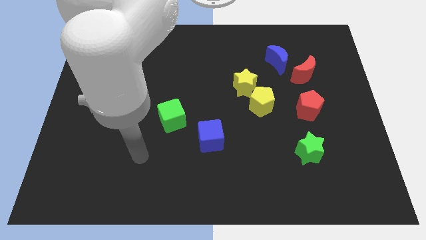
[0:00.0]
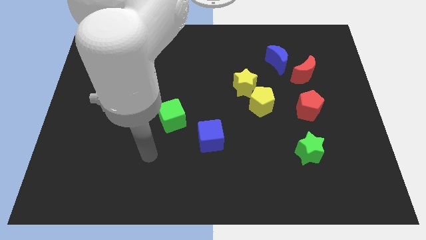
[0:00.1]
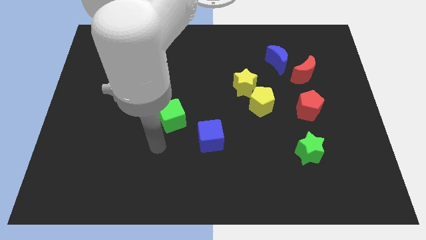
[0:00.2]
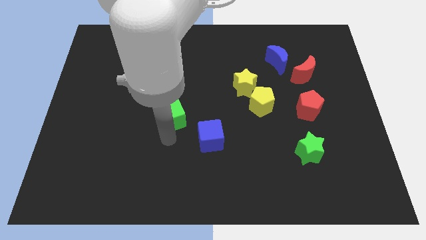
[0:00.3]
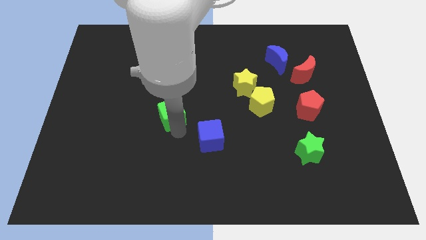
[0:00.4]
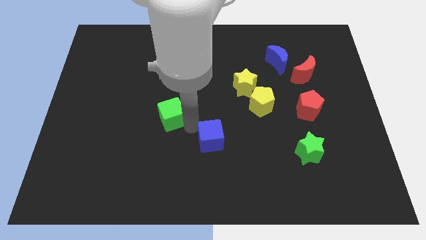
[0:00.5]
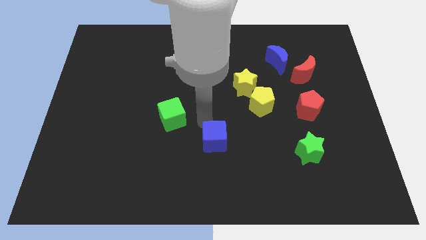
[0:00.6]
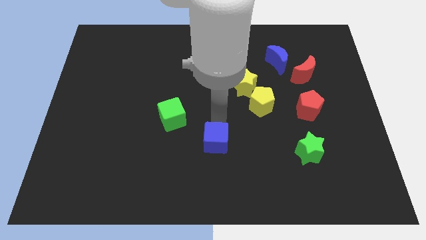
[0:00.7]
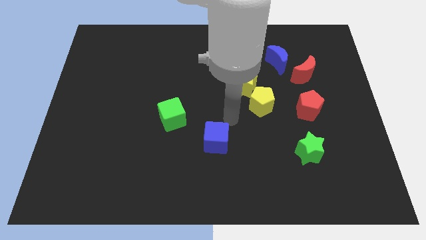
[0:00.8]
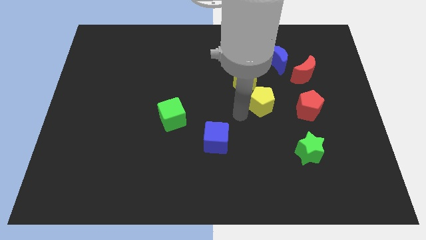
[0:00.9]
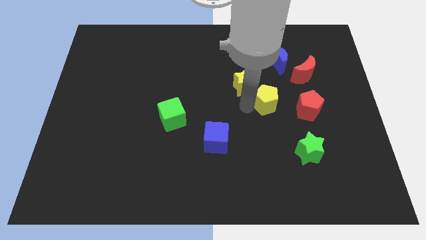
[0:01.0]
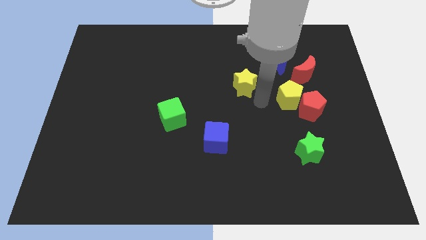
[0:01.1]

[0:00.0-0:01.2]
pull the yellow star apart from the yellow pentagon

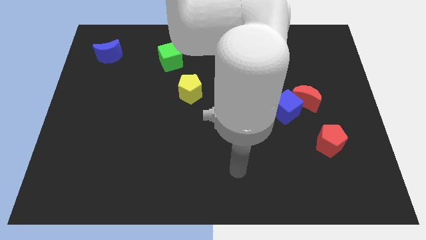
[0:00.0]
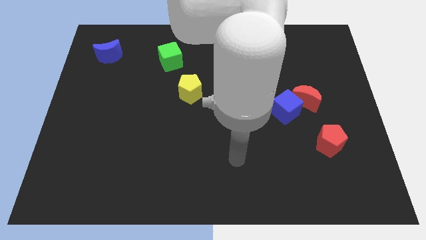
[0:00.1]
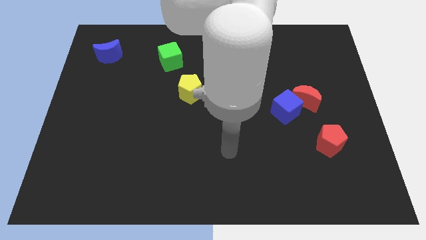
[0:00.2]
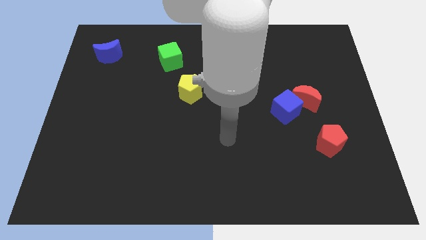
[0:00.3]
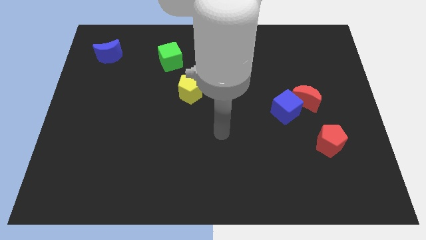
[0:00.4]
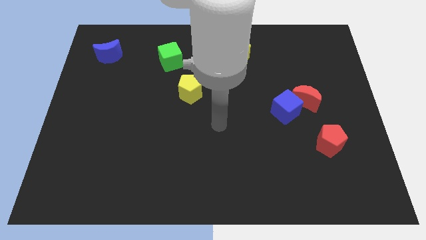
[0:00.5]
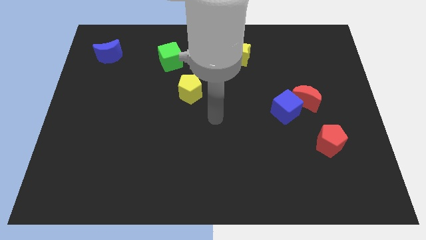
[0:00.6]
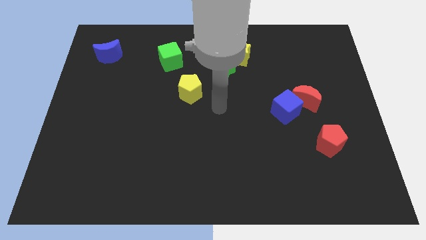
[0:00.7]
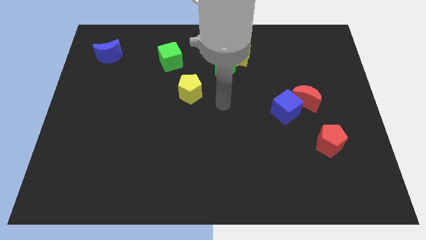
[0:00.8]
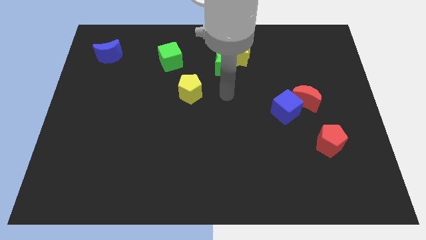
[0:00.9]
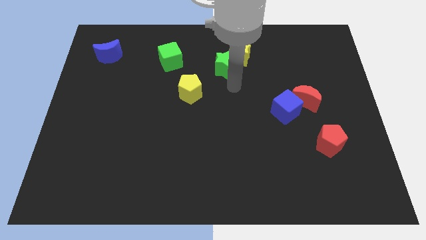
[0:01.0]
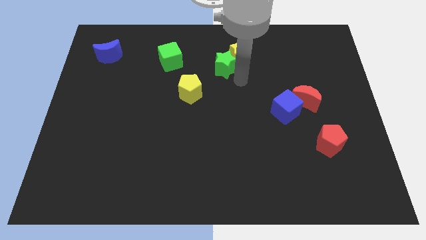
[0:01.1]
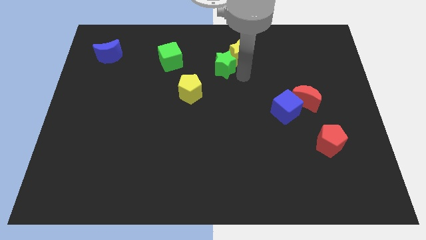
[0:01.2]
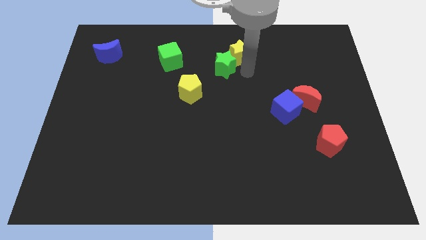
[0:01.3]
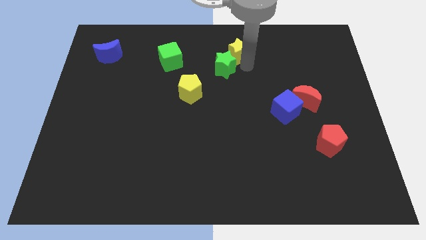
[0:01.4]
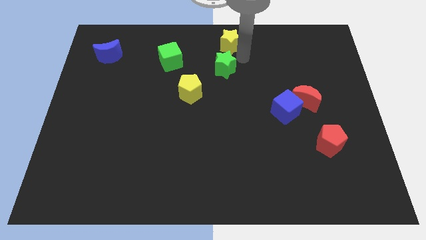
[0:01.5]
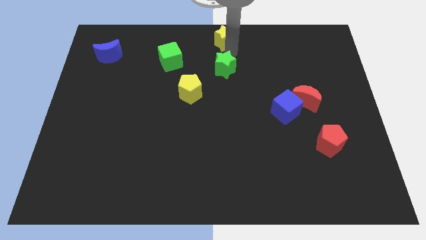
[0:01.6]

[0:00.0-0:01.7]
pull the green star apart from the yellow star

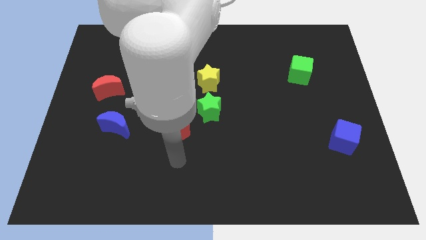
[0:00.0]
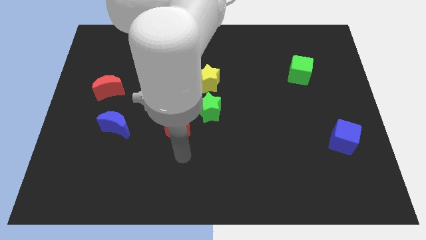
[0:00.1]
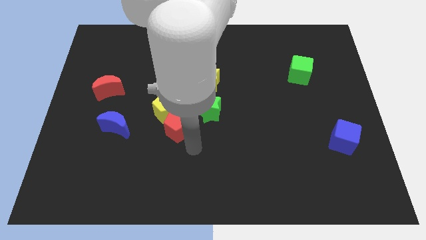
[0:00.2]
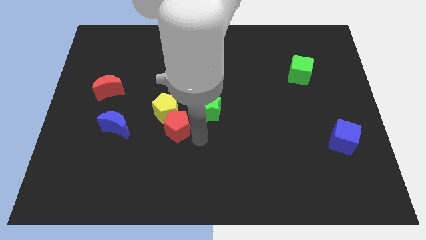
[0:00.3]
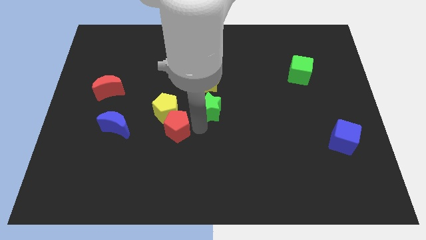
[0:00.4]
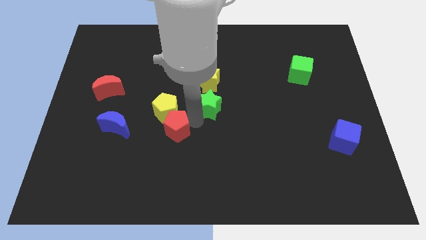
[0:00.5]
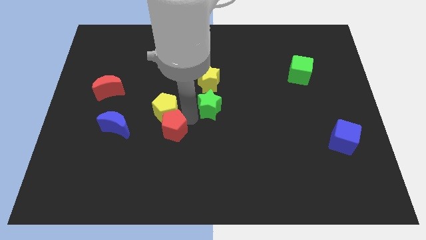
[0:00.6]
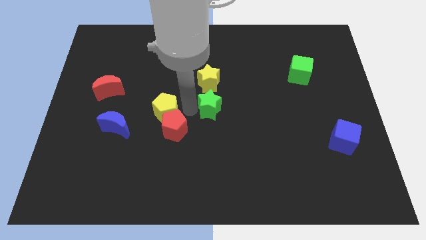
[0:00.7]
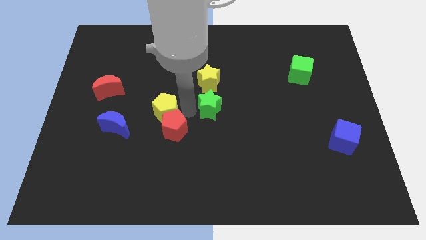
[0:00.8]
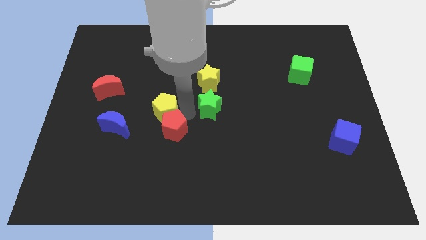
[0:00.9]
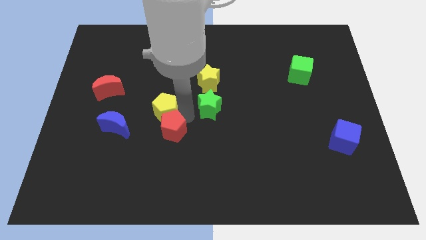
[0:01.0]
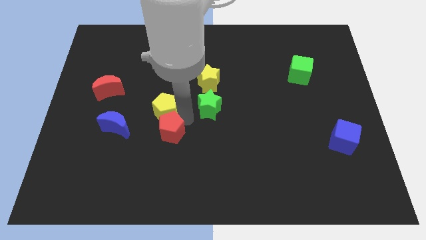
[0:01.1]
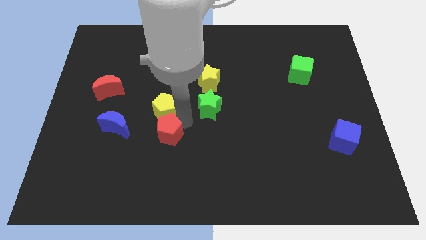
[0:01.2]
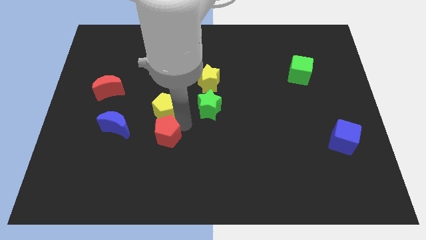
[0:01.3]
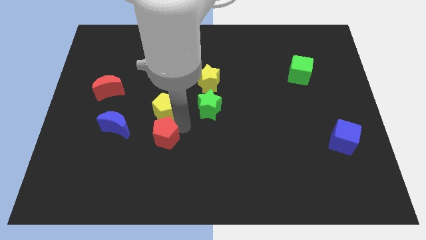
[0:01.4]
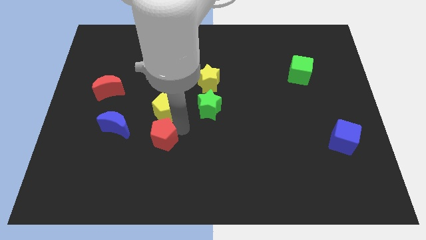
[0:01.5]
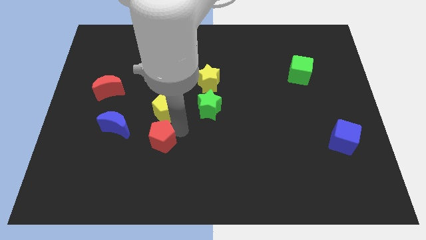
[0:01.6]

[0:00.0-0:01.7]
separate the red pentagon from the yellow pentagon and green star

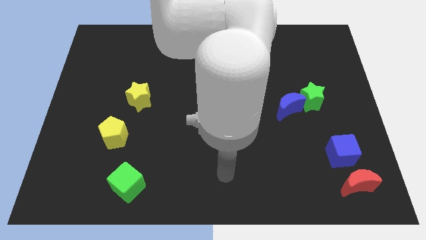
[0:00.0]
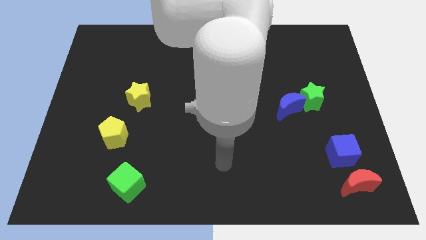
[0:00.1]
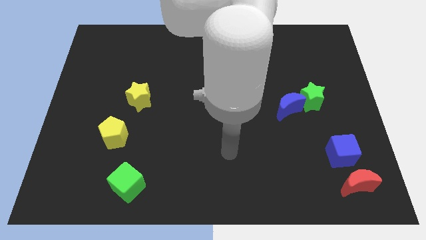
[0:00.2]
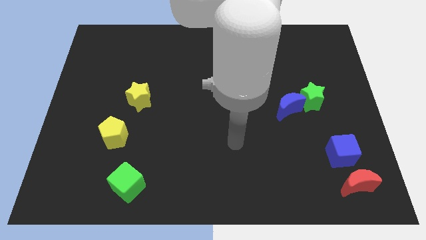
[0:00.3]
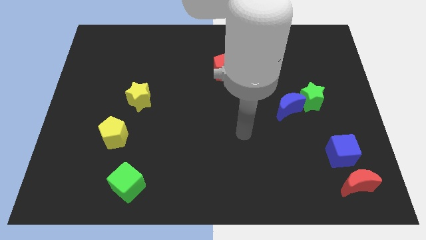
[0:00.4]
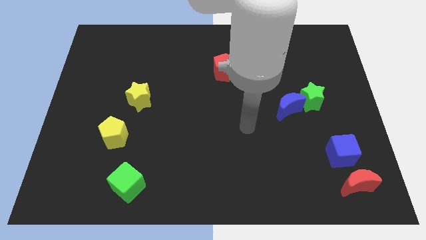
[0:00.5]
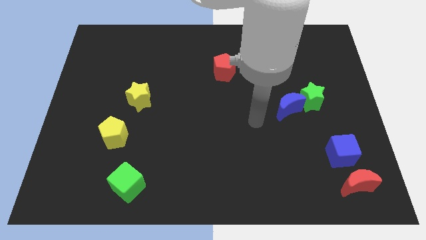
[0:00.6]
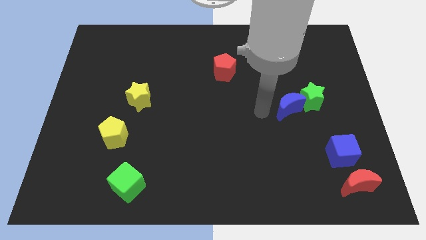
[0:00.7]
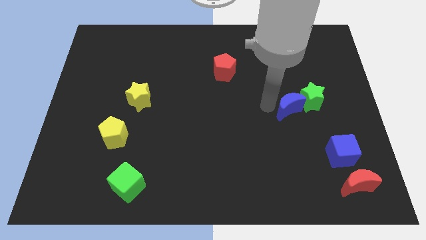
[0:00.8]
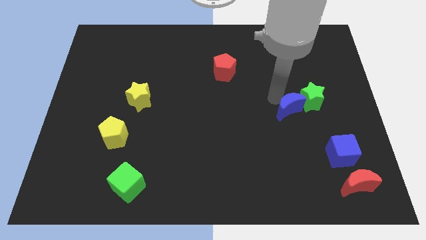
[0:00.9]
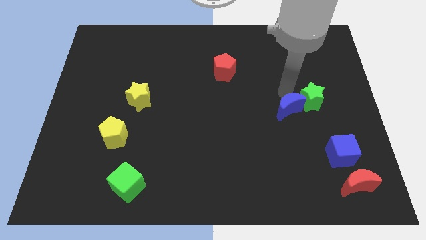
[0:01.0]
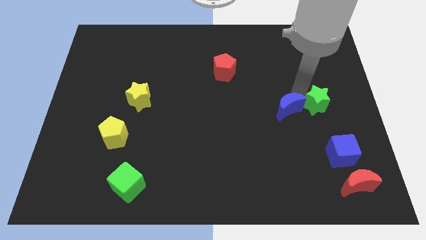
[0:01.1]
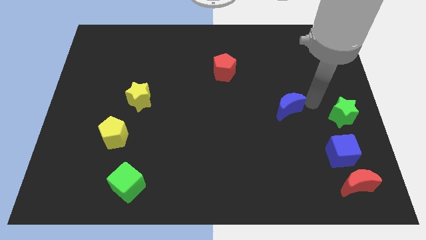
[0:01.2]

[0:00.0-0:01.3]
pull the blue moon apart from the green star

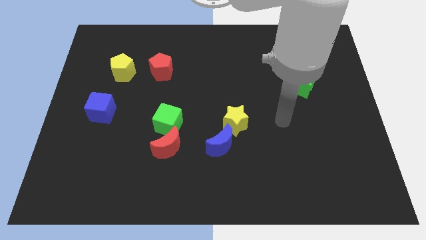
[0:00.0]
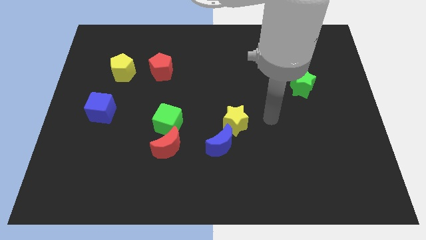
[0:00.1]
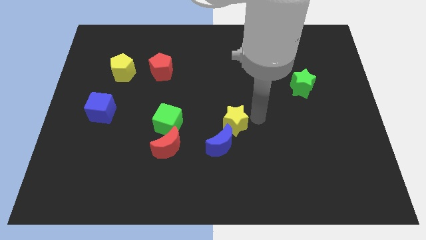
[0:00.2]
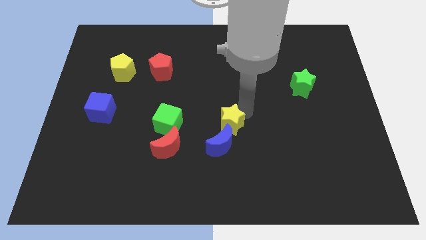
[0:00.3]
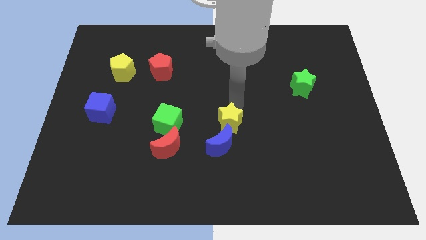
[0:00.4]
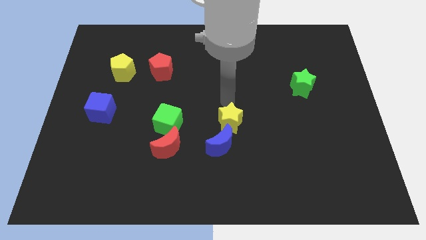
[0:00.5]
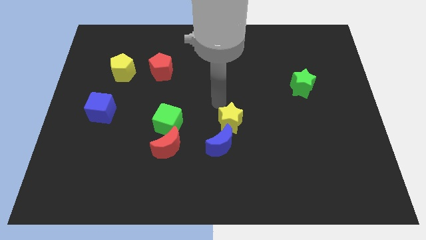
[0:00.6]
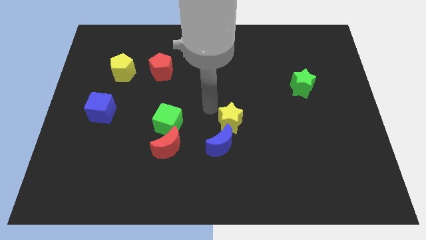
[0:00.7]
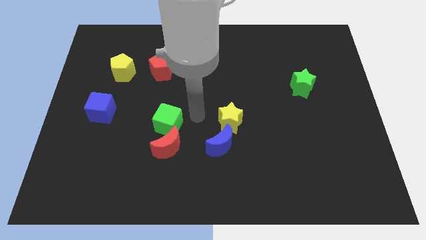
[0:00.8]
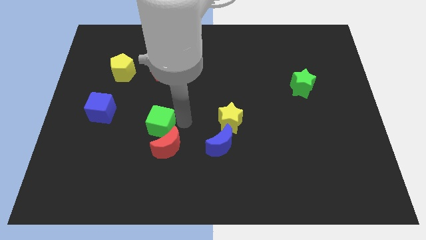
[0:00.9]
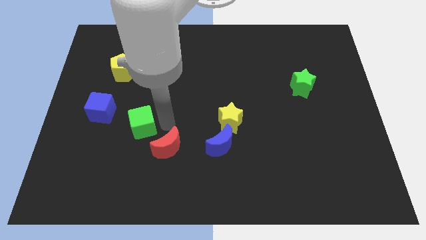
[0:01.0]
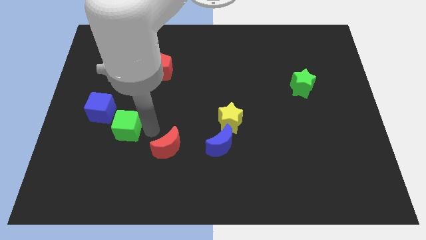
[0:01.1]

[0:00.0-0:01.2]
pull the red moon apart from the green cube

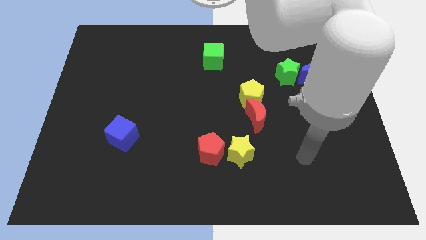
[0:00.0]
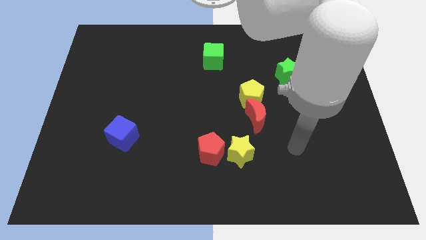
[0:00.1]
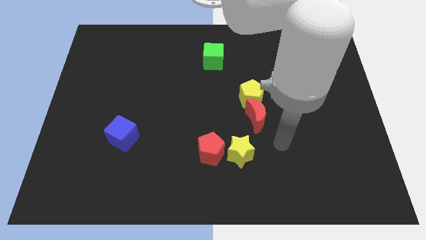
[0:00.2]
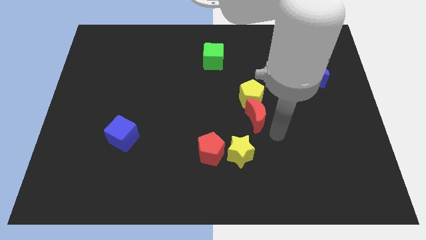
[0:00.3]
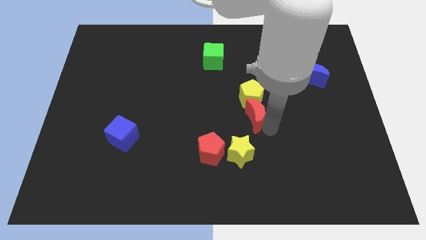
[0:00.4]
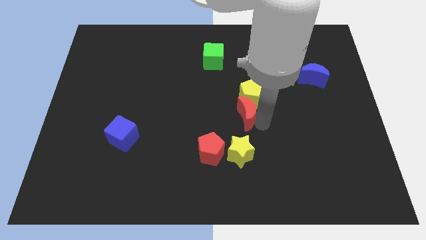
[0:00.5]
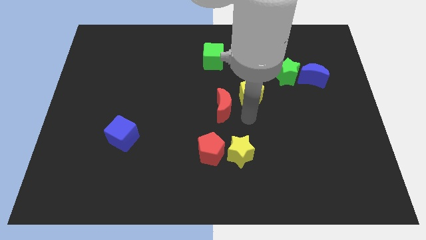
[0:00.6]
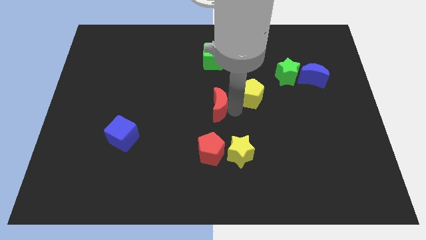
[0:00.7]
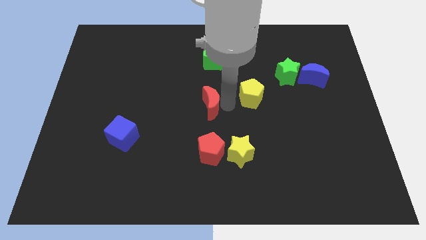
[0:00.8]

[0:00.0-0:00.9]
pull the yellow pentagon apart from the red moon

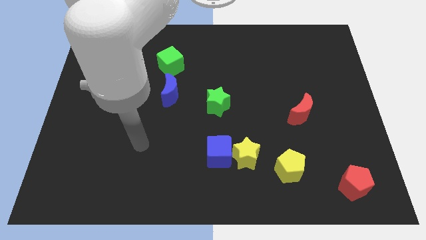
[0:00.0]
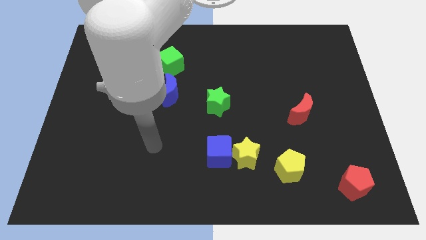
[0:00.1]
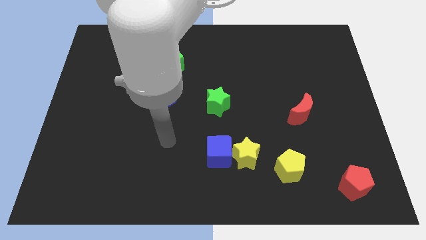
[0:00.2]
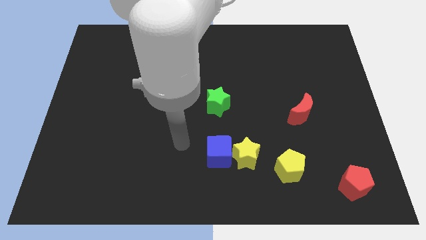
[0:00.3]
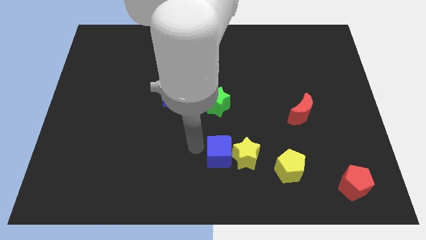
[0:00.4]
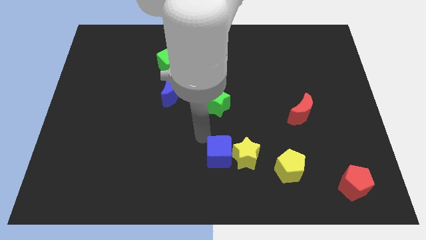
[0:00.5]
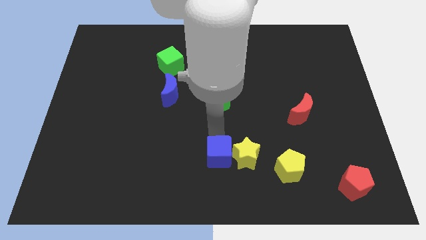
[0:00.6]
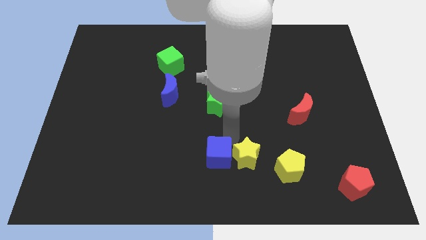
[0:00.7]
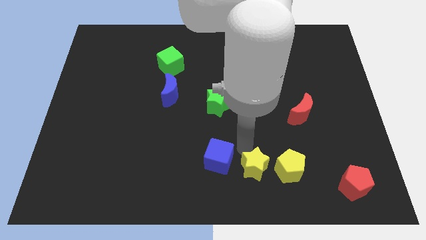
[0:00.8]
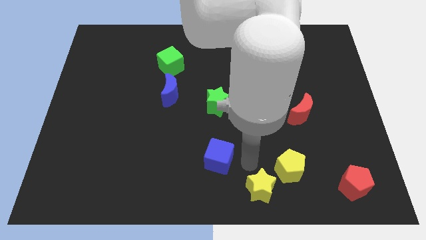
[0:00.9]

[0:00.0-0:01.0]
move the blue cube away from the yellow star

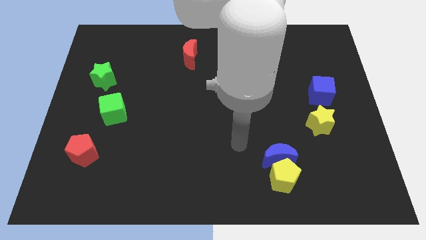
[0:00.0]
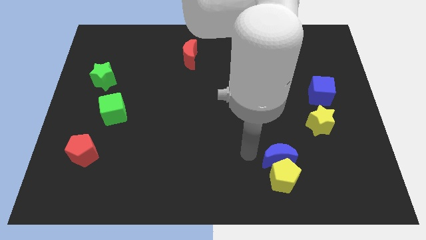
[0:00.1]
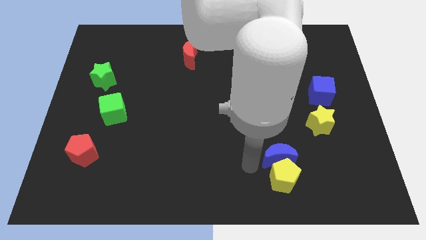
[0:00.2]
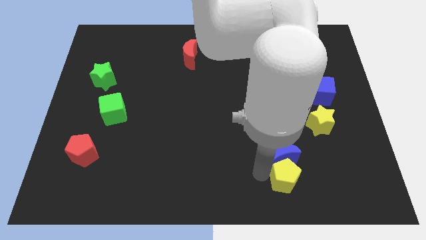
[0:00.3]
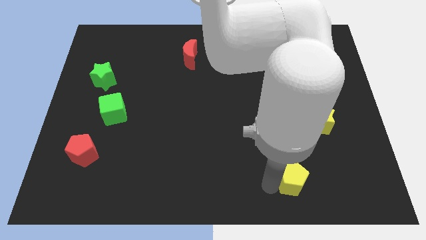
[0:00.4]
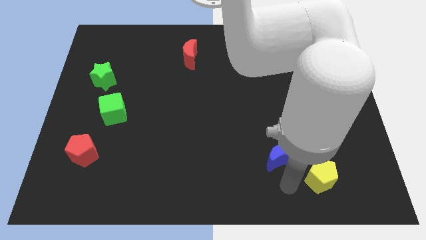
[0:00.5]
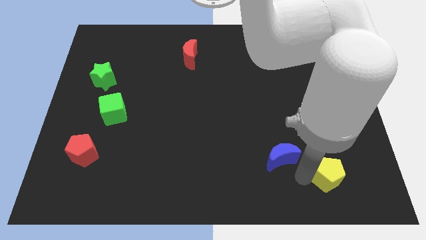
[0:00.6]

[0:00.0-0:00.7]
separate the blue moon from the yellow pentagon
